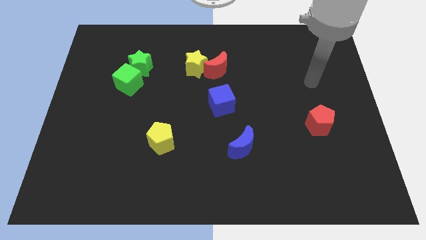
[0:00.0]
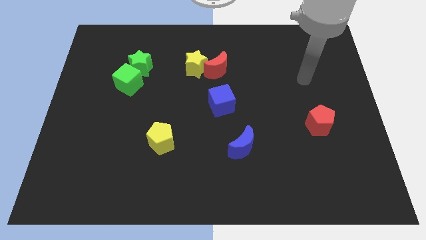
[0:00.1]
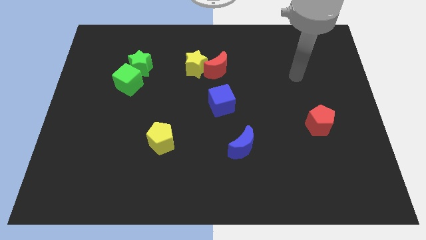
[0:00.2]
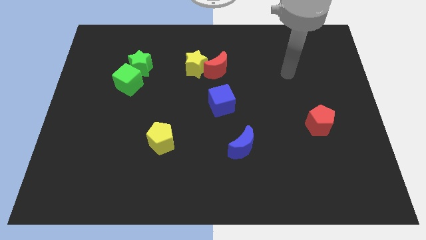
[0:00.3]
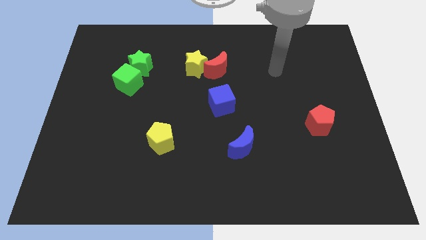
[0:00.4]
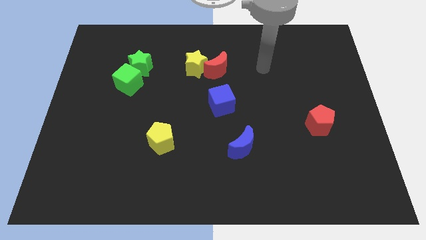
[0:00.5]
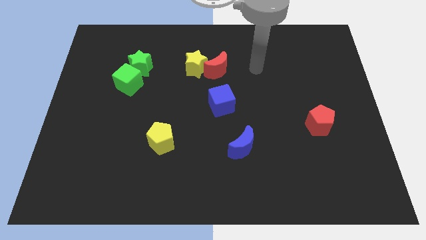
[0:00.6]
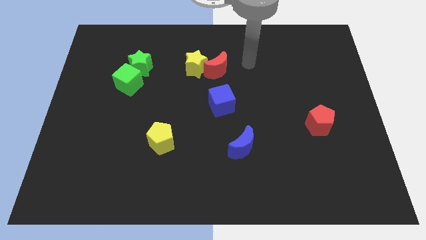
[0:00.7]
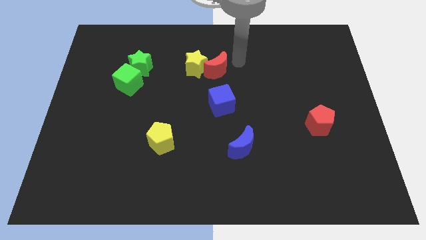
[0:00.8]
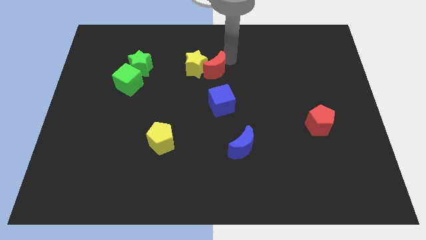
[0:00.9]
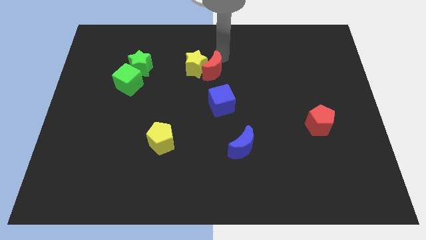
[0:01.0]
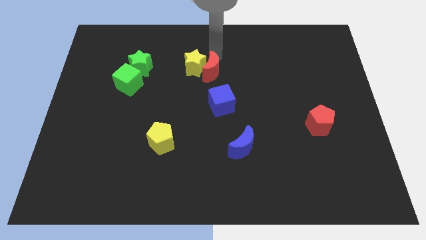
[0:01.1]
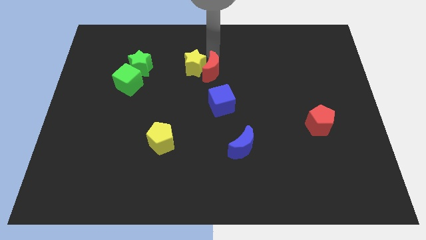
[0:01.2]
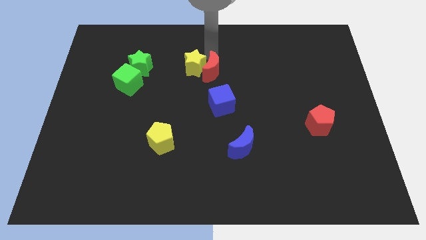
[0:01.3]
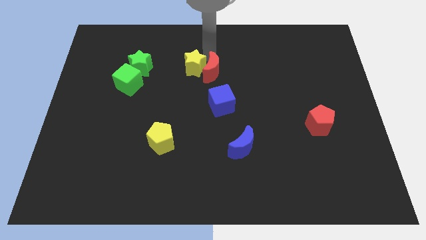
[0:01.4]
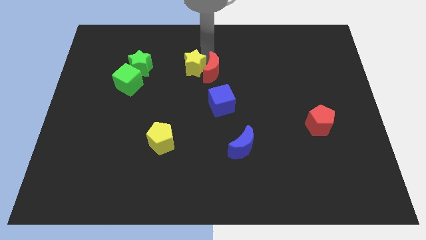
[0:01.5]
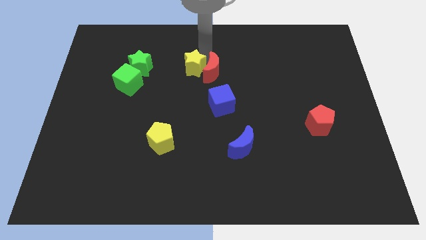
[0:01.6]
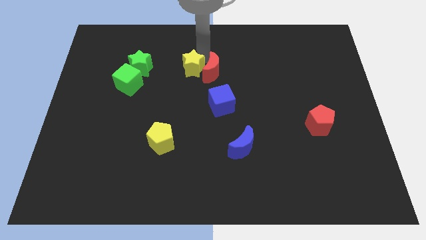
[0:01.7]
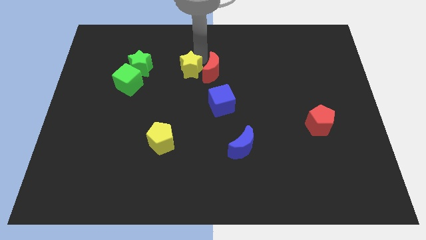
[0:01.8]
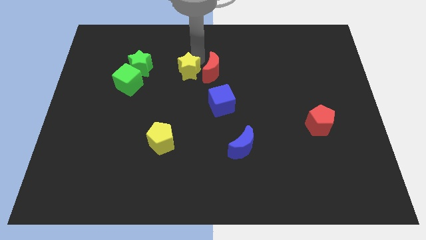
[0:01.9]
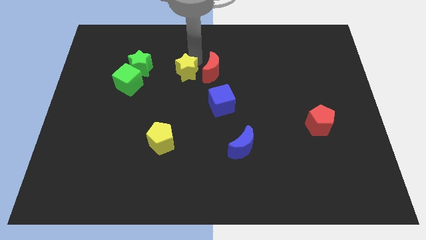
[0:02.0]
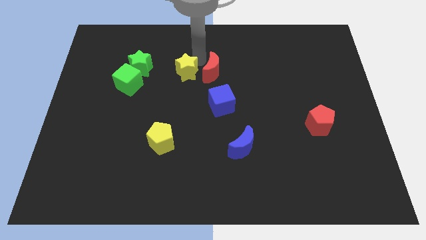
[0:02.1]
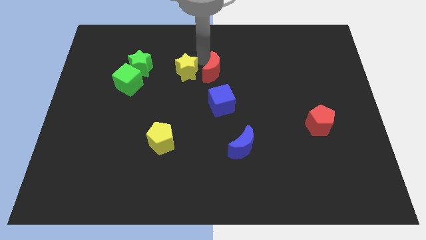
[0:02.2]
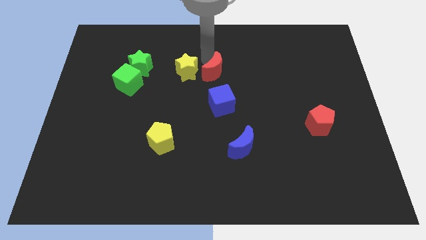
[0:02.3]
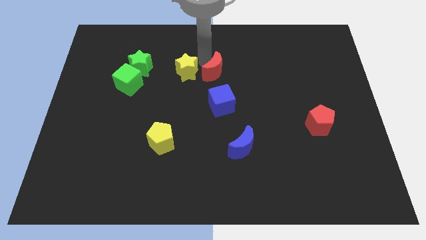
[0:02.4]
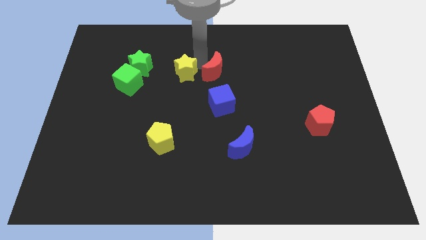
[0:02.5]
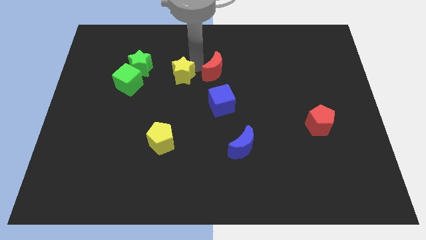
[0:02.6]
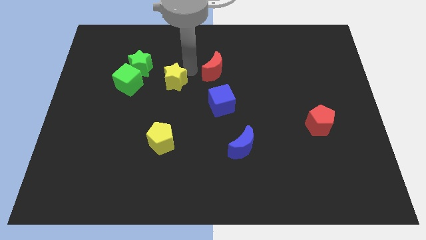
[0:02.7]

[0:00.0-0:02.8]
slightly push the yellow star downwards and to the left
